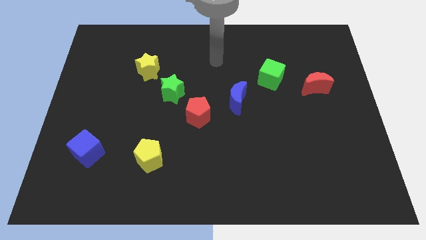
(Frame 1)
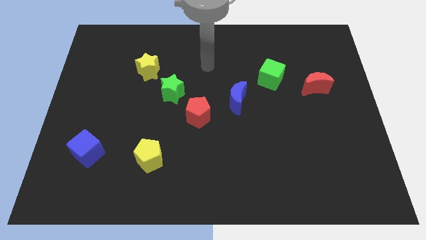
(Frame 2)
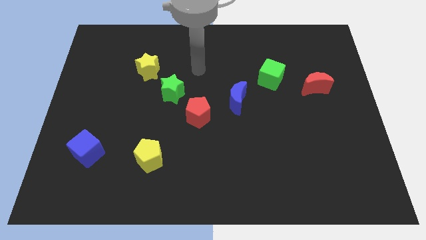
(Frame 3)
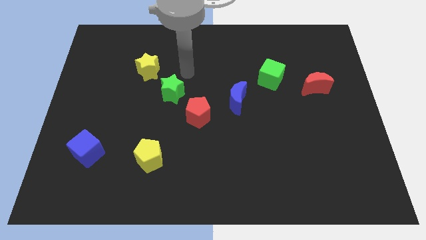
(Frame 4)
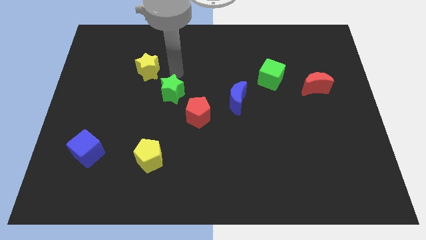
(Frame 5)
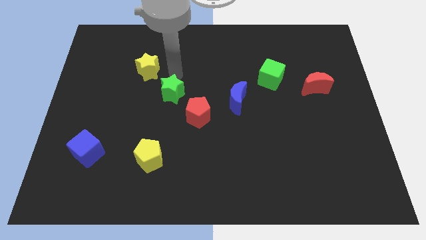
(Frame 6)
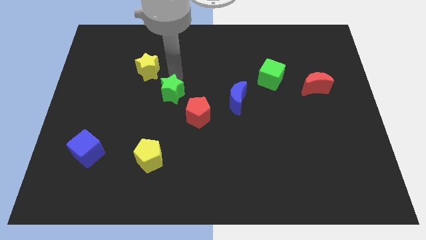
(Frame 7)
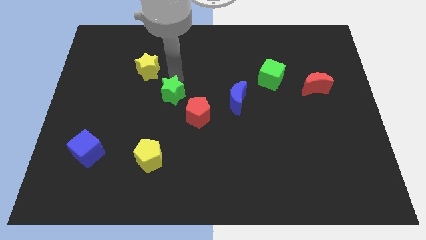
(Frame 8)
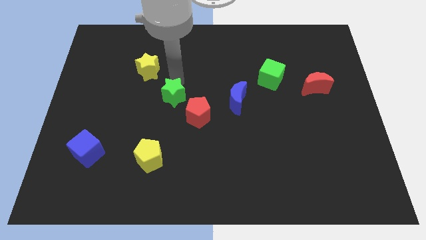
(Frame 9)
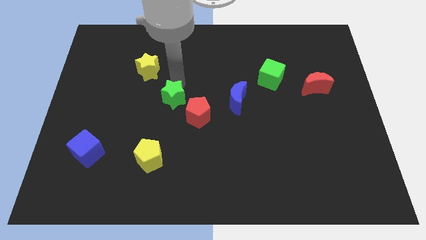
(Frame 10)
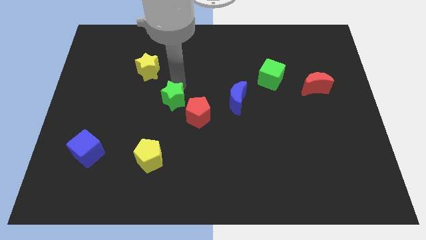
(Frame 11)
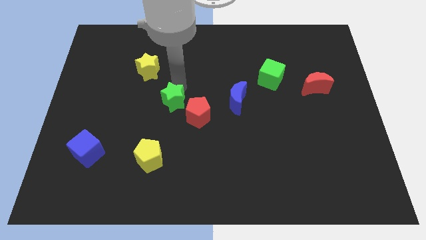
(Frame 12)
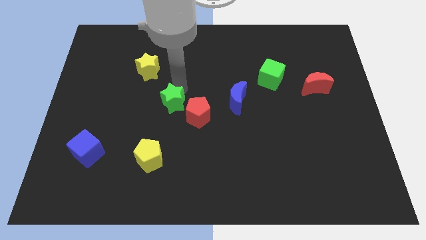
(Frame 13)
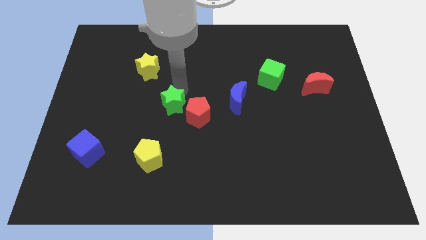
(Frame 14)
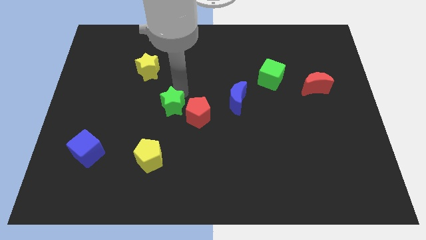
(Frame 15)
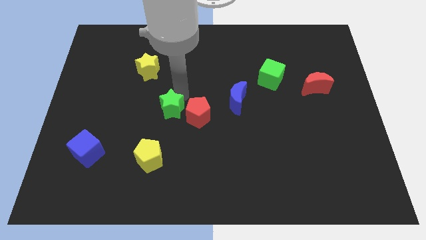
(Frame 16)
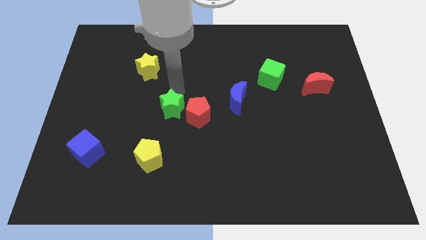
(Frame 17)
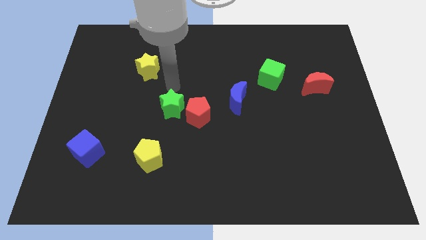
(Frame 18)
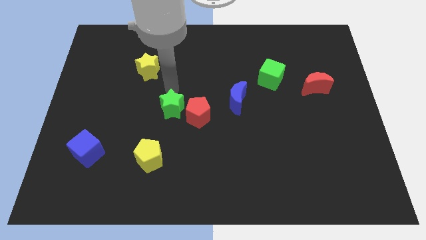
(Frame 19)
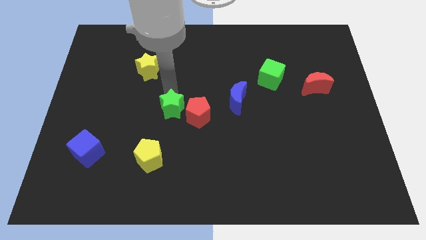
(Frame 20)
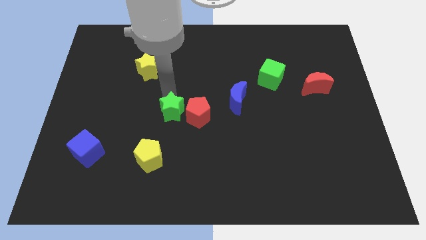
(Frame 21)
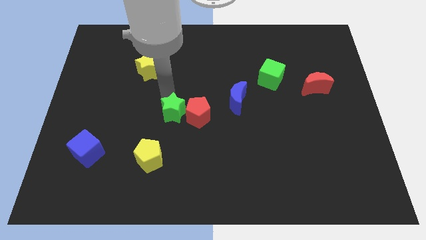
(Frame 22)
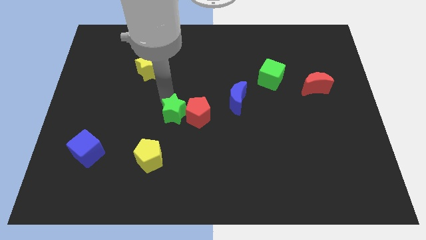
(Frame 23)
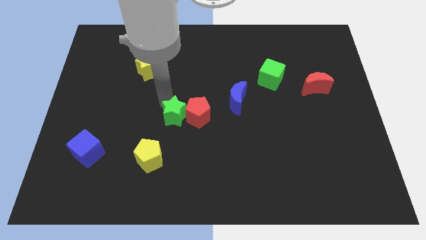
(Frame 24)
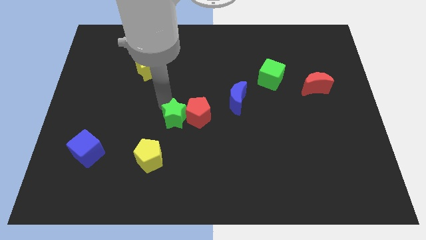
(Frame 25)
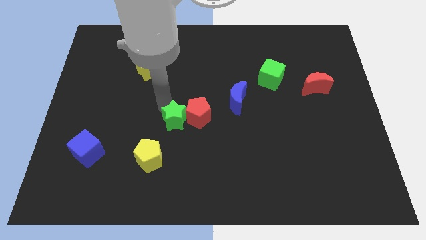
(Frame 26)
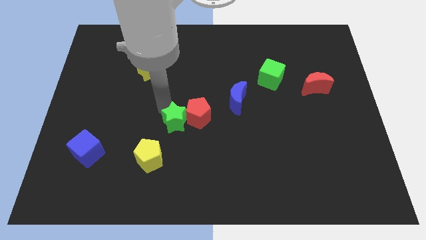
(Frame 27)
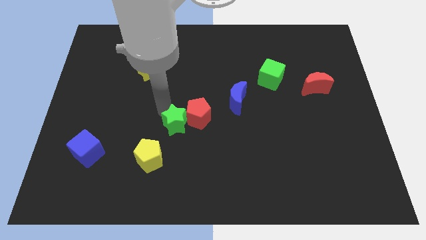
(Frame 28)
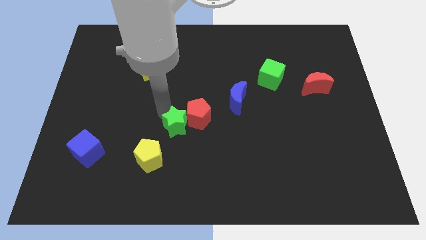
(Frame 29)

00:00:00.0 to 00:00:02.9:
pull the green star apart from the red pentagon and yellow star

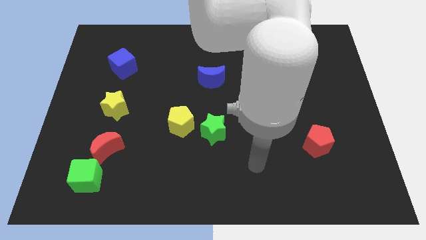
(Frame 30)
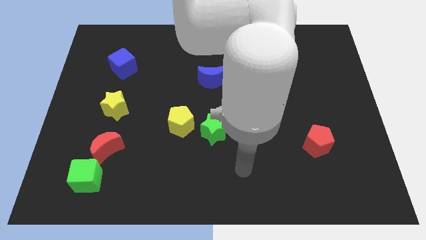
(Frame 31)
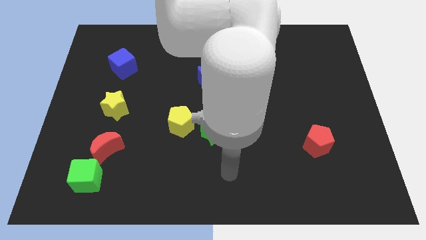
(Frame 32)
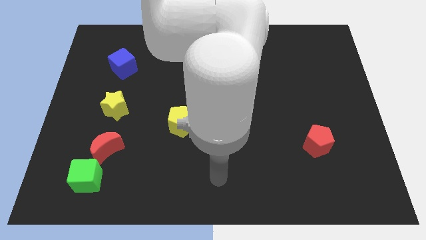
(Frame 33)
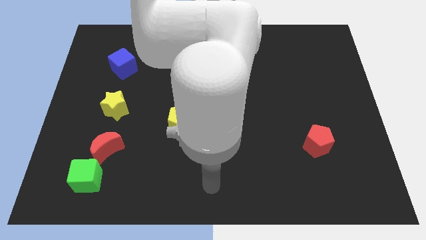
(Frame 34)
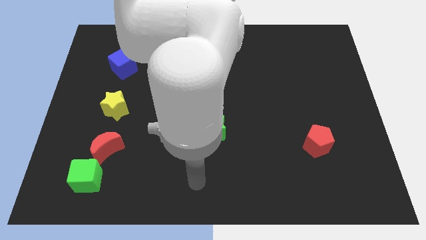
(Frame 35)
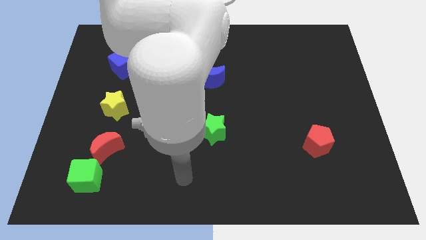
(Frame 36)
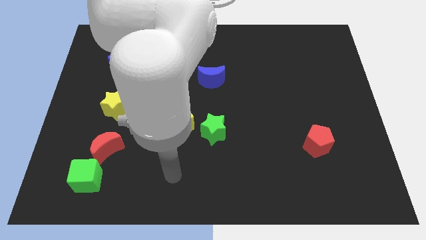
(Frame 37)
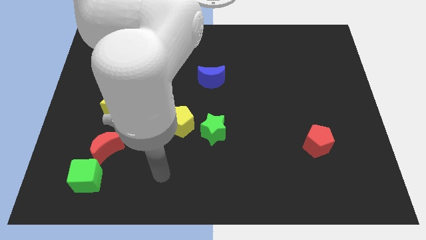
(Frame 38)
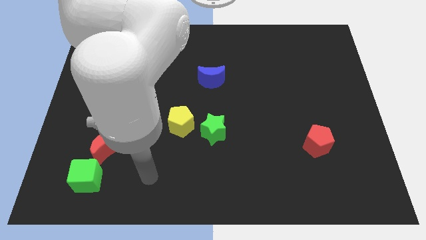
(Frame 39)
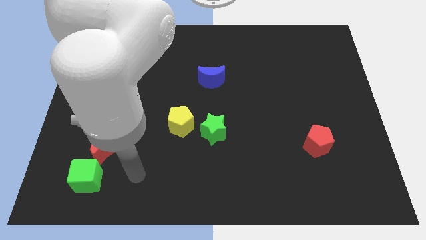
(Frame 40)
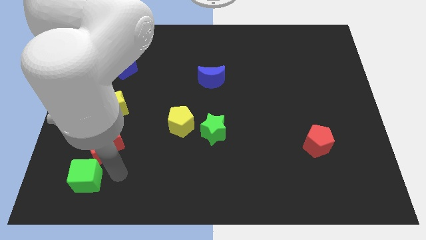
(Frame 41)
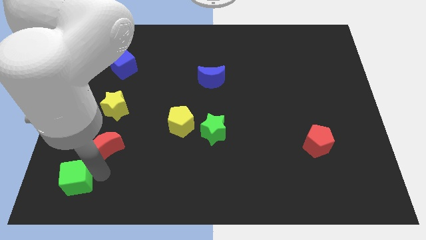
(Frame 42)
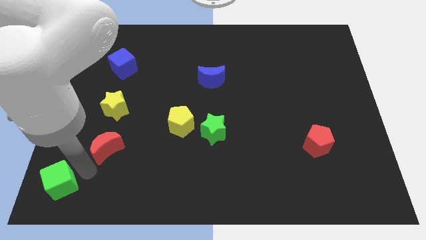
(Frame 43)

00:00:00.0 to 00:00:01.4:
pull the red moon apart from the green cube

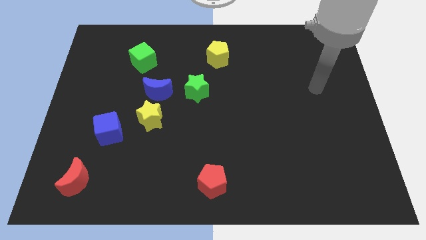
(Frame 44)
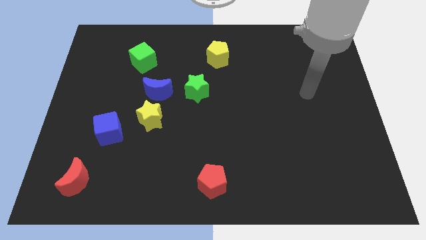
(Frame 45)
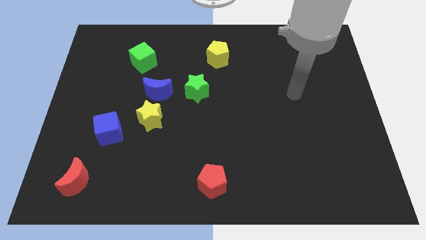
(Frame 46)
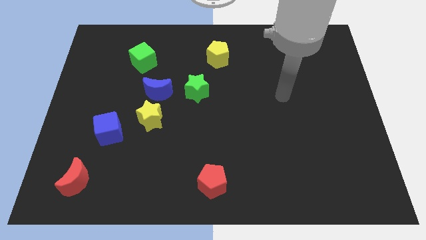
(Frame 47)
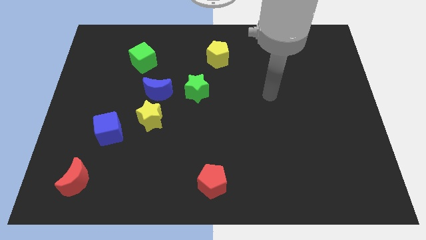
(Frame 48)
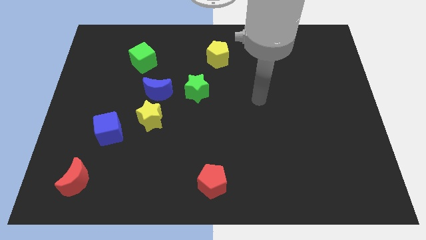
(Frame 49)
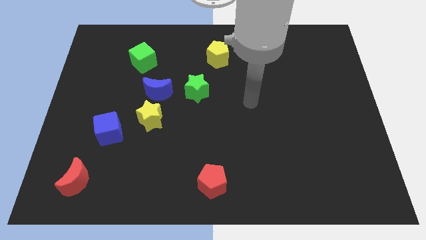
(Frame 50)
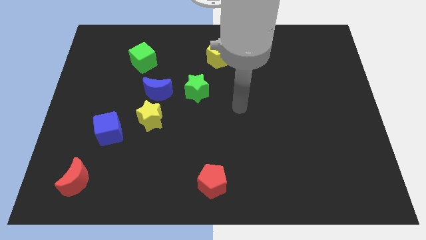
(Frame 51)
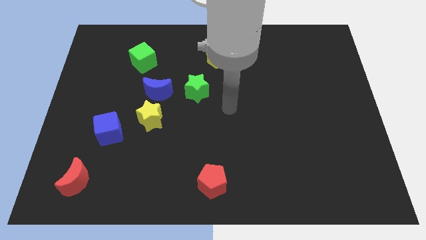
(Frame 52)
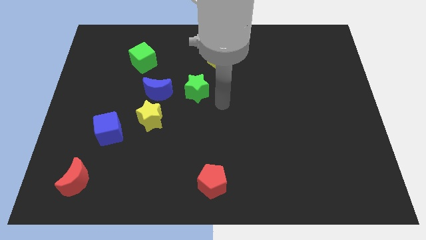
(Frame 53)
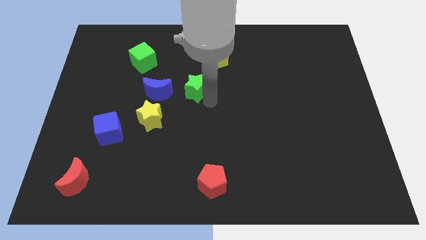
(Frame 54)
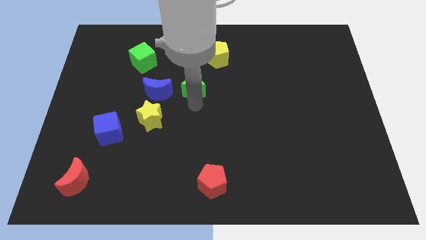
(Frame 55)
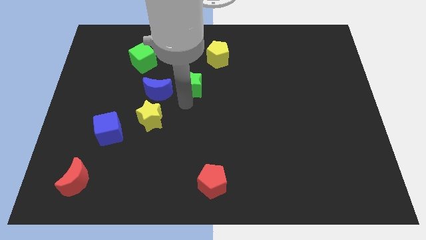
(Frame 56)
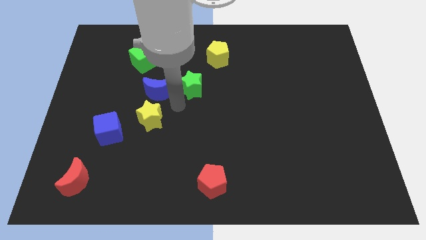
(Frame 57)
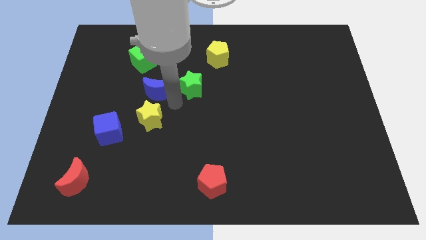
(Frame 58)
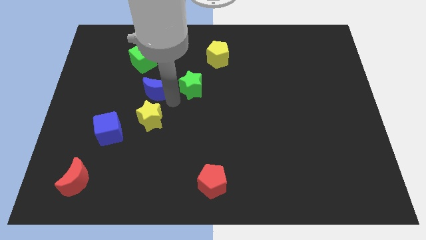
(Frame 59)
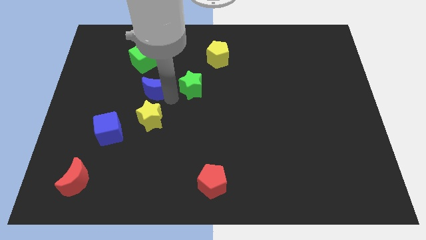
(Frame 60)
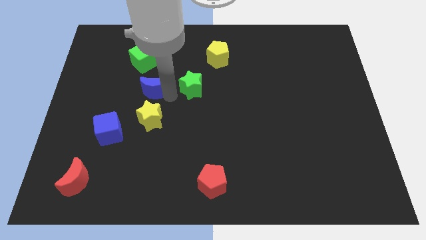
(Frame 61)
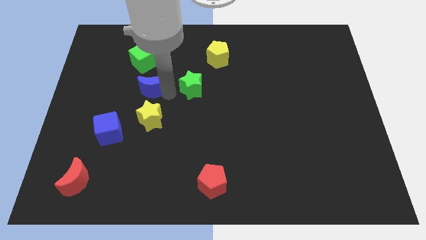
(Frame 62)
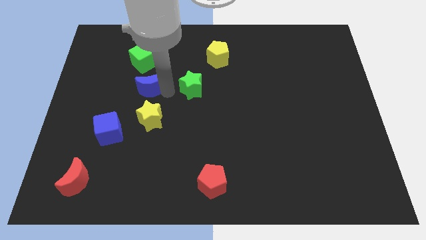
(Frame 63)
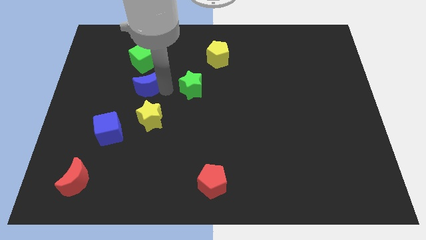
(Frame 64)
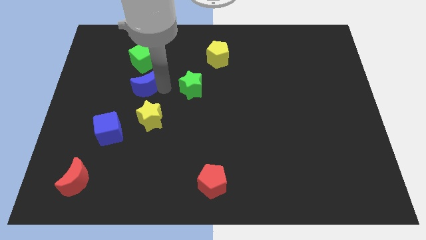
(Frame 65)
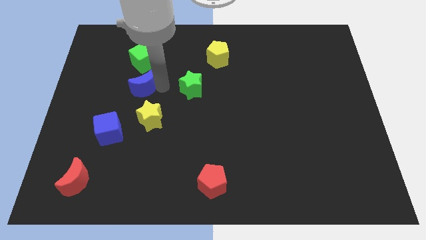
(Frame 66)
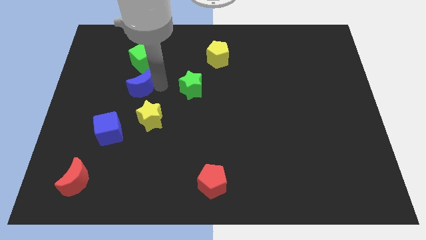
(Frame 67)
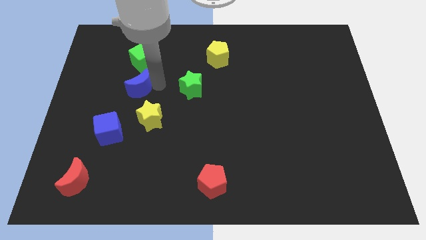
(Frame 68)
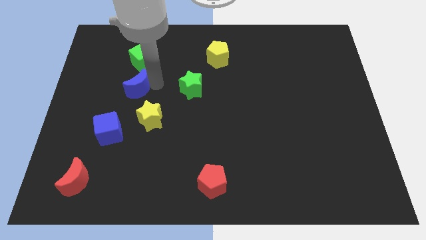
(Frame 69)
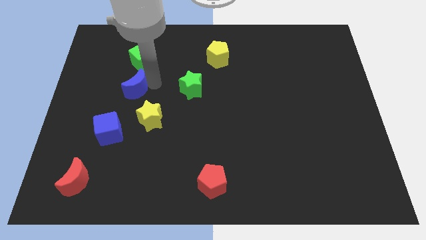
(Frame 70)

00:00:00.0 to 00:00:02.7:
pull the blue moon apart from the yellow star and green star

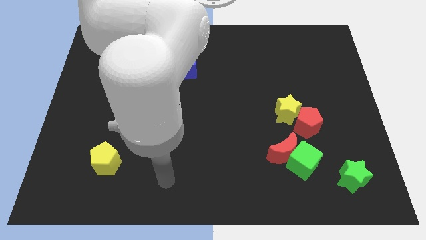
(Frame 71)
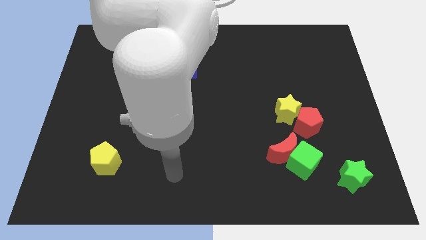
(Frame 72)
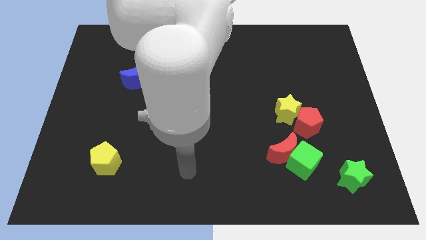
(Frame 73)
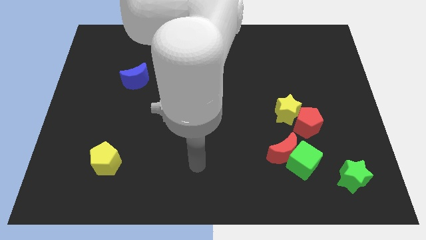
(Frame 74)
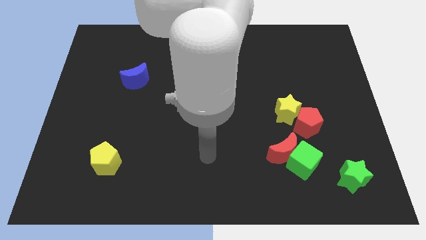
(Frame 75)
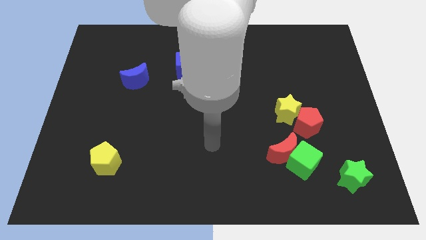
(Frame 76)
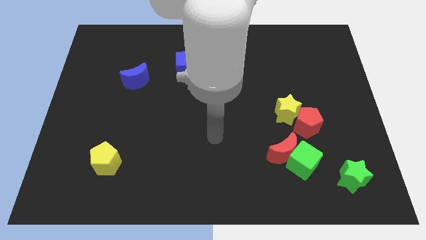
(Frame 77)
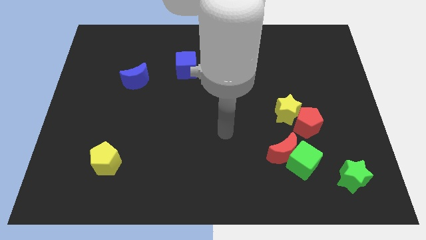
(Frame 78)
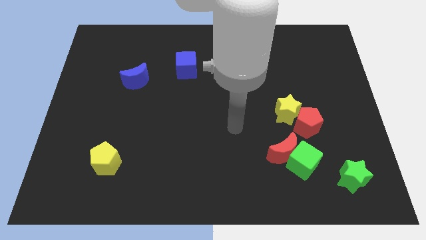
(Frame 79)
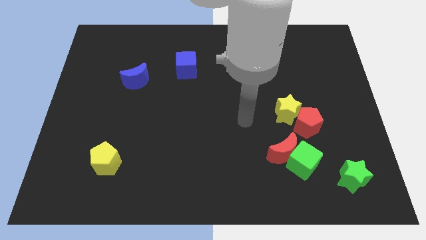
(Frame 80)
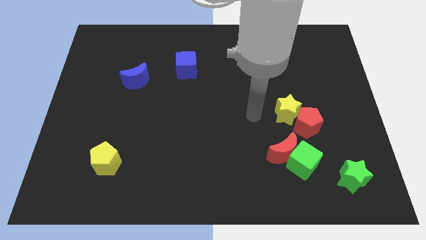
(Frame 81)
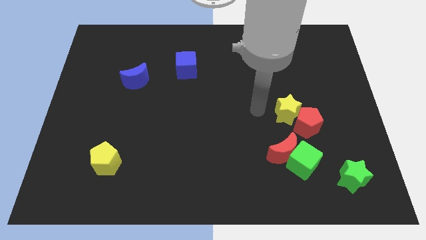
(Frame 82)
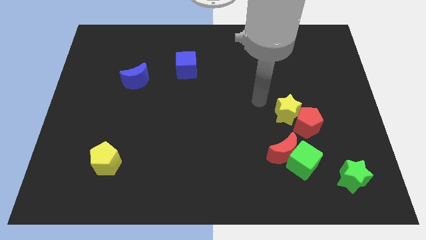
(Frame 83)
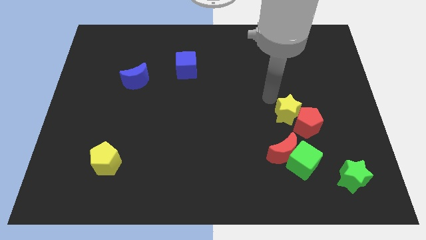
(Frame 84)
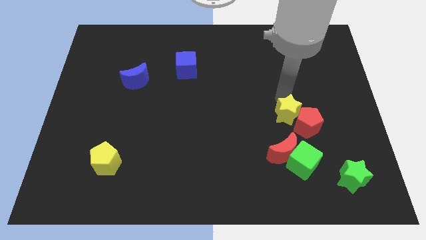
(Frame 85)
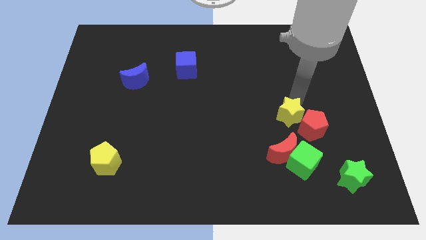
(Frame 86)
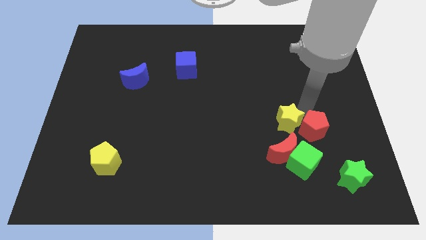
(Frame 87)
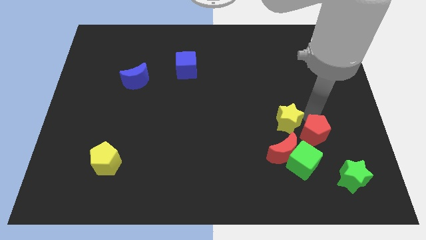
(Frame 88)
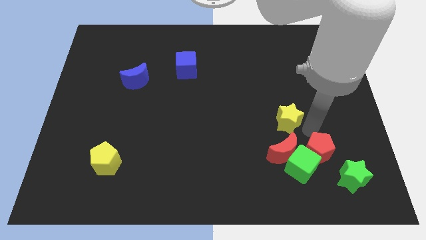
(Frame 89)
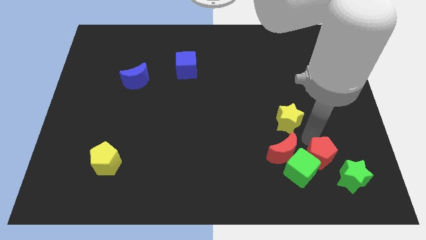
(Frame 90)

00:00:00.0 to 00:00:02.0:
separate the yellow star from the red pentagon

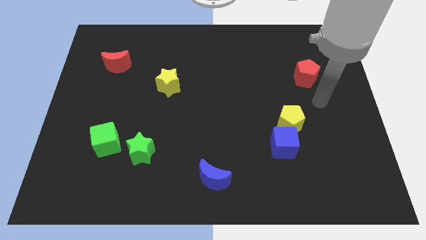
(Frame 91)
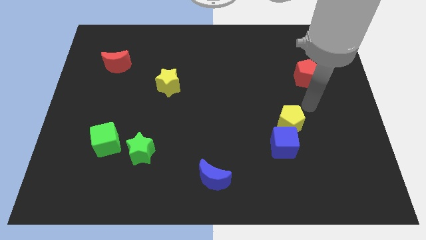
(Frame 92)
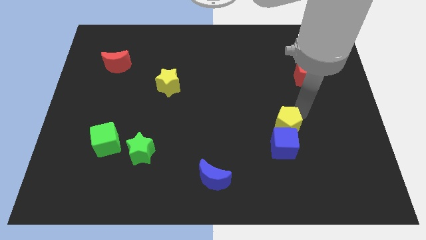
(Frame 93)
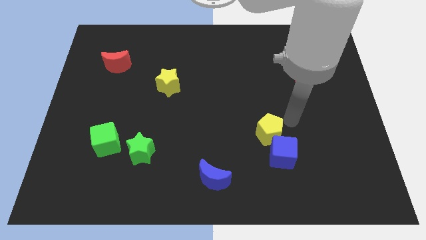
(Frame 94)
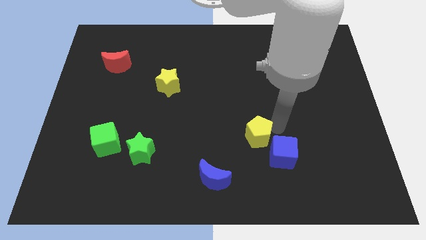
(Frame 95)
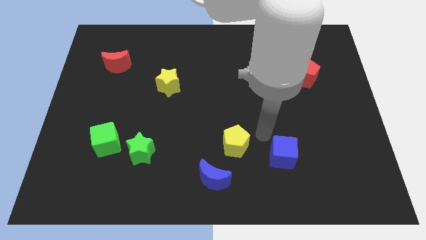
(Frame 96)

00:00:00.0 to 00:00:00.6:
separate the blue cube from the yellow pentagon
